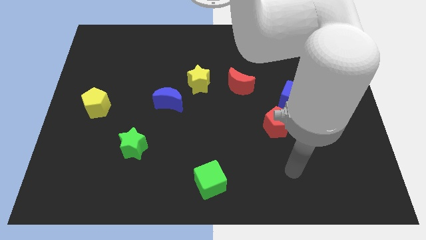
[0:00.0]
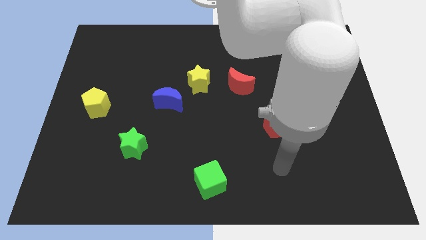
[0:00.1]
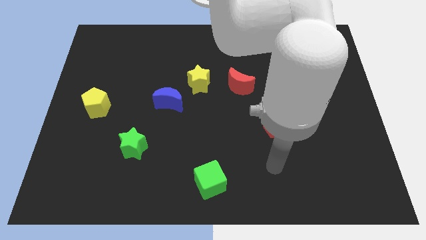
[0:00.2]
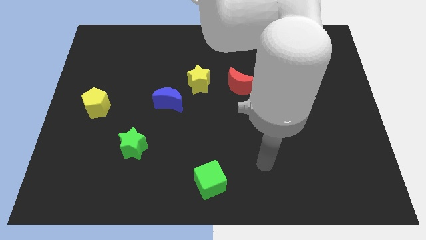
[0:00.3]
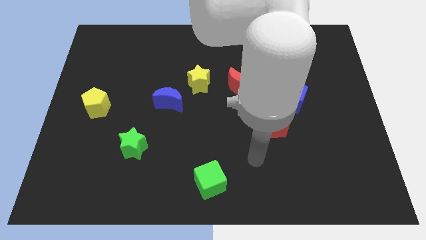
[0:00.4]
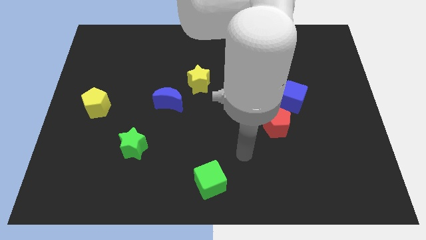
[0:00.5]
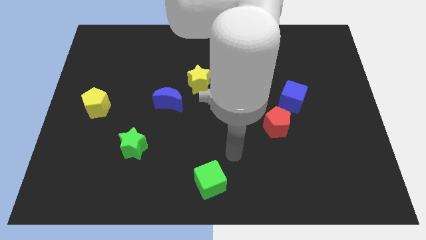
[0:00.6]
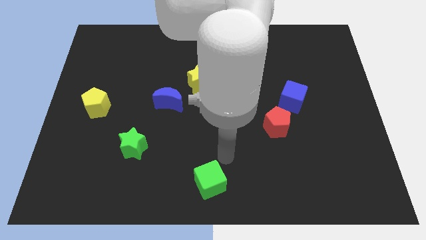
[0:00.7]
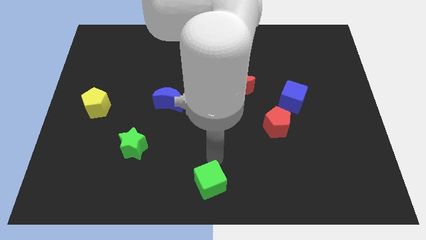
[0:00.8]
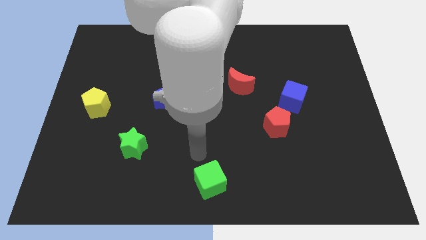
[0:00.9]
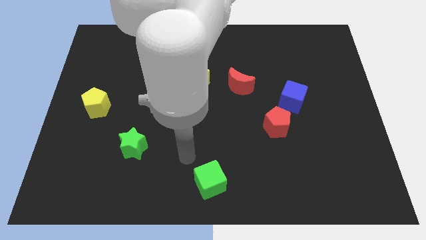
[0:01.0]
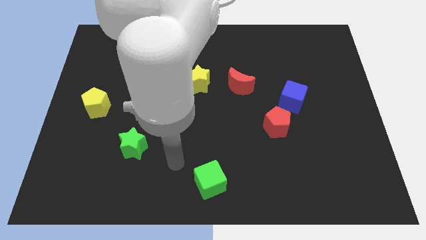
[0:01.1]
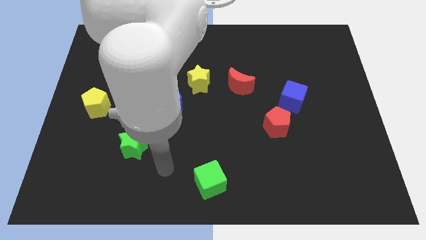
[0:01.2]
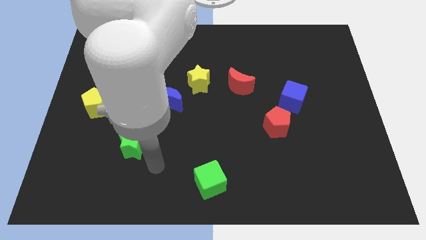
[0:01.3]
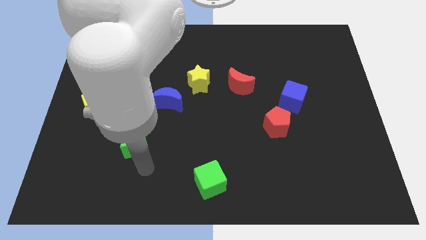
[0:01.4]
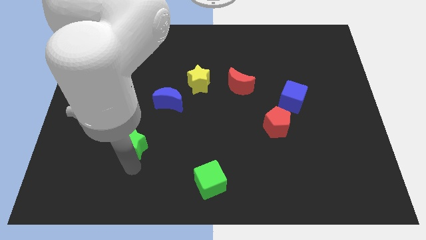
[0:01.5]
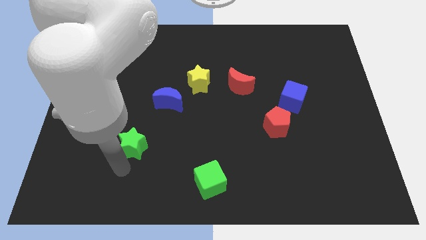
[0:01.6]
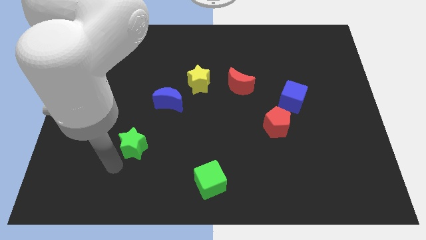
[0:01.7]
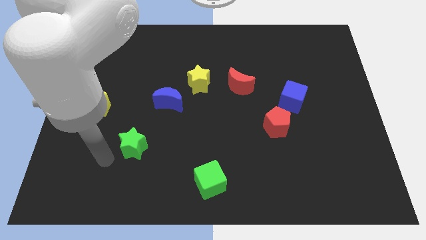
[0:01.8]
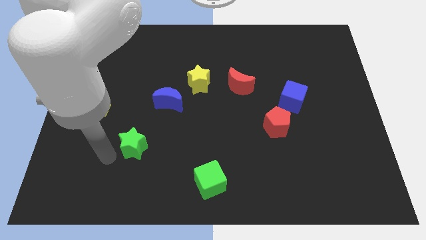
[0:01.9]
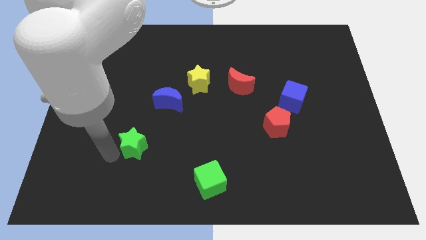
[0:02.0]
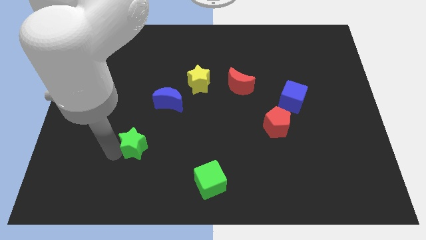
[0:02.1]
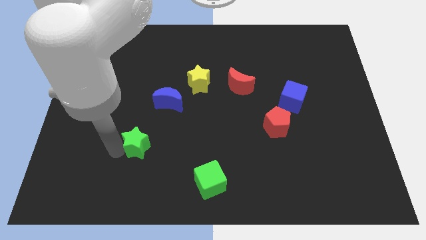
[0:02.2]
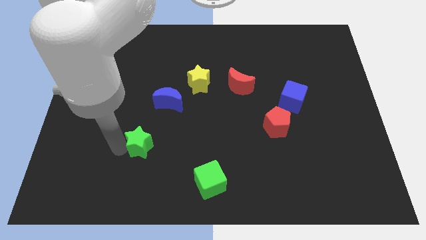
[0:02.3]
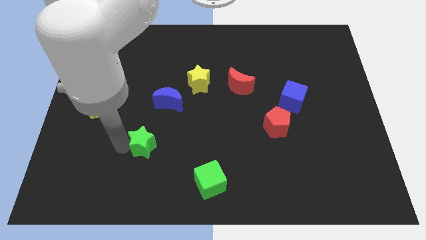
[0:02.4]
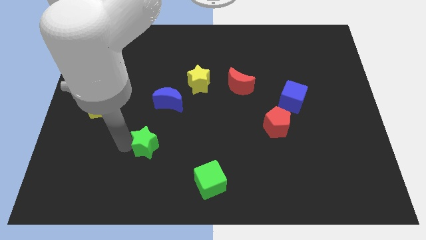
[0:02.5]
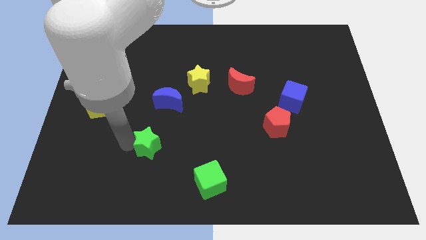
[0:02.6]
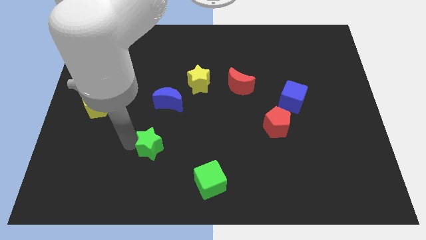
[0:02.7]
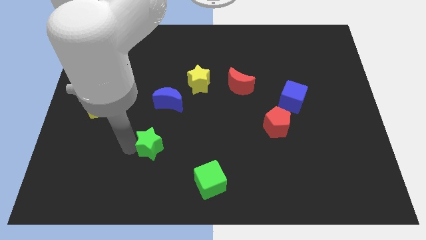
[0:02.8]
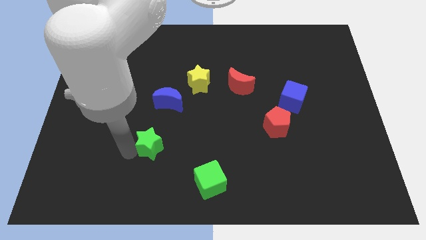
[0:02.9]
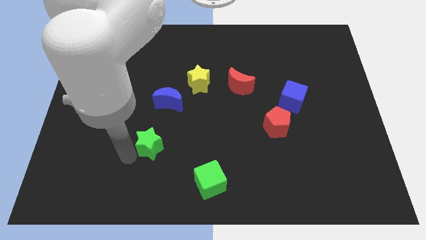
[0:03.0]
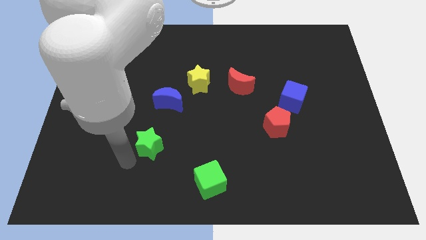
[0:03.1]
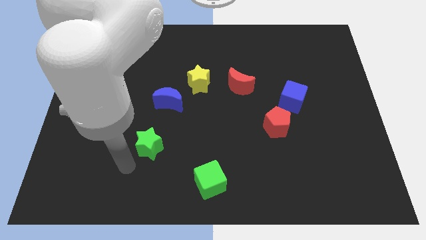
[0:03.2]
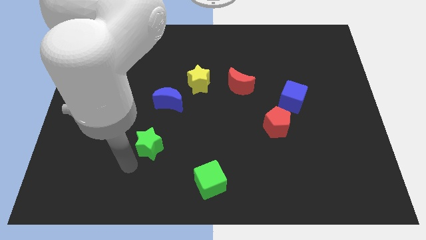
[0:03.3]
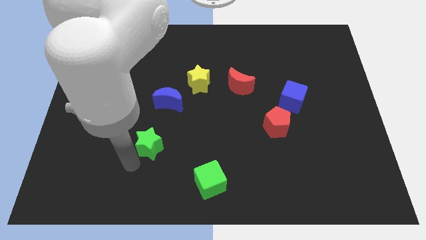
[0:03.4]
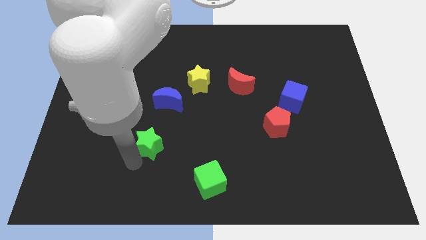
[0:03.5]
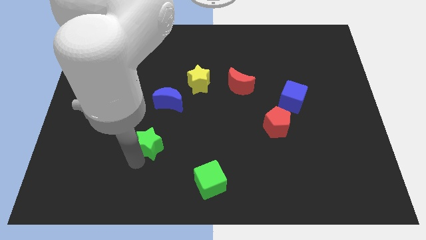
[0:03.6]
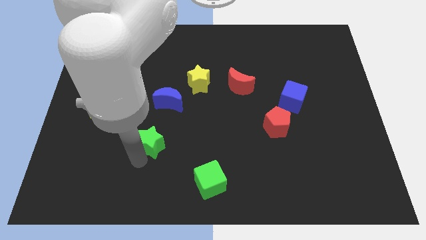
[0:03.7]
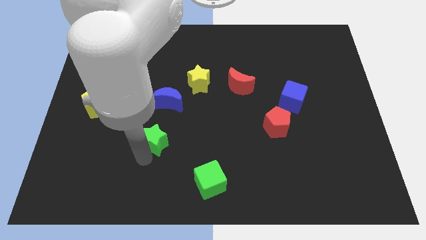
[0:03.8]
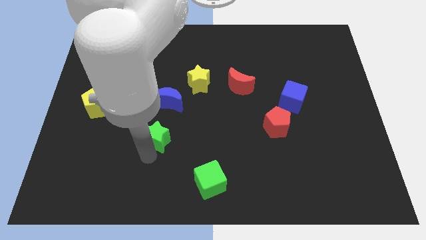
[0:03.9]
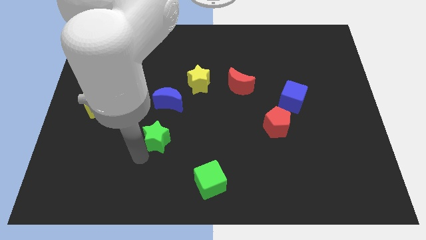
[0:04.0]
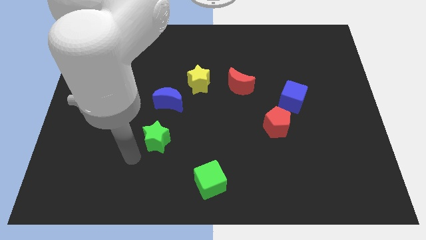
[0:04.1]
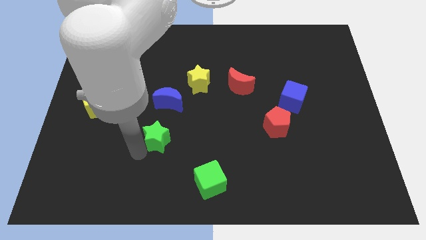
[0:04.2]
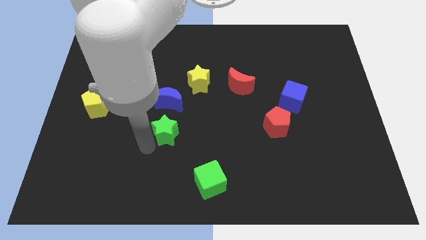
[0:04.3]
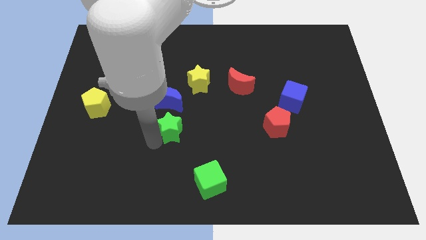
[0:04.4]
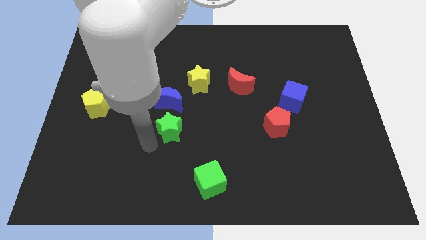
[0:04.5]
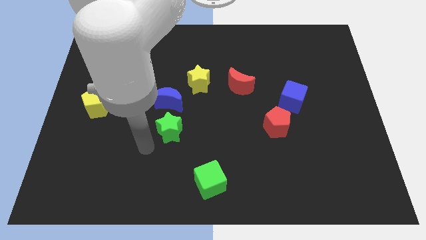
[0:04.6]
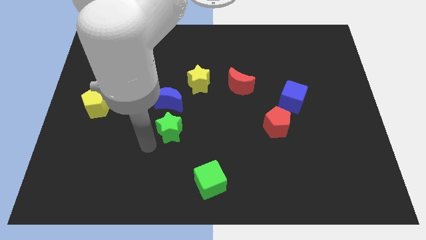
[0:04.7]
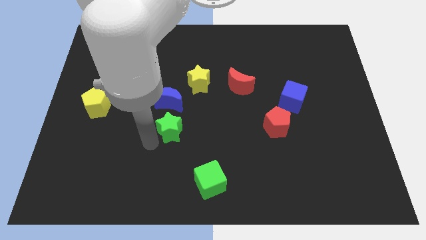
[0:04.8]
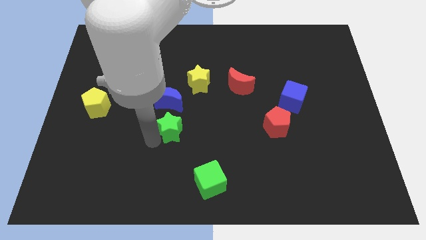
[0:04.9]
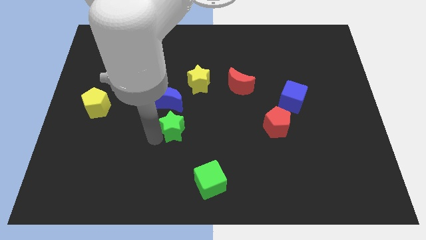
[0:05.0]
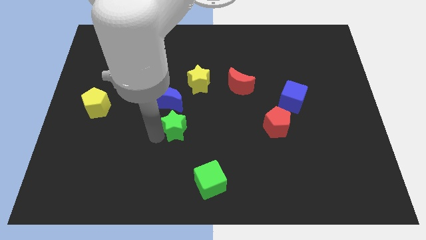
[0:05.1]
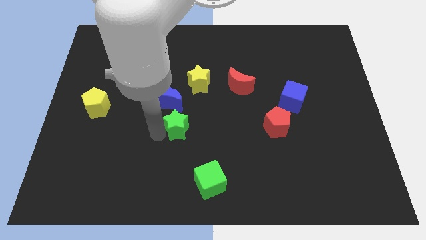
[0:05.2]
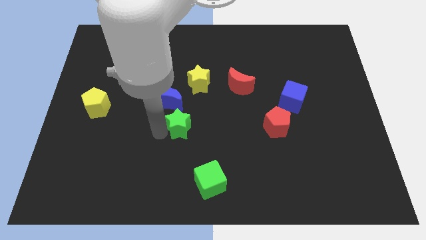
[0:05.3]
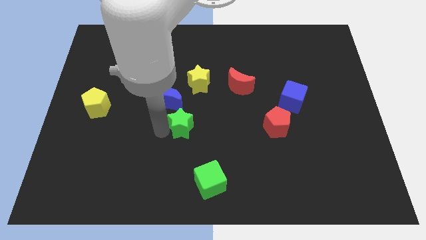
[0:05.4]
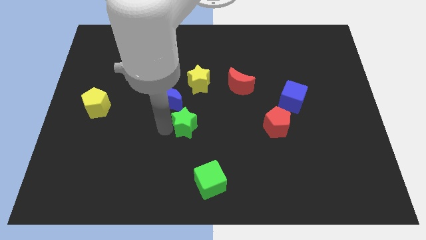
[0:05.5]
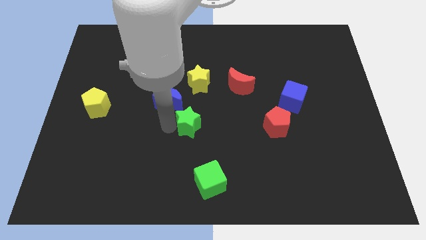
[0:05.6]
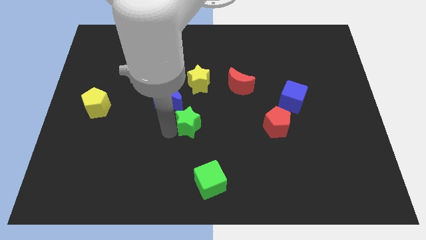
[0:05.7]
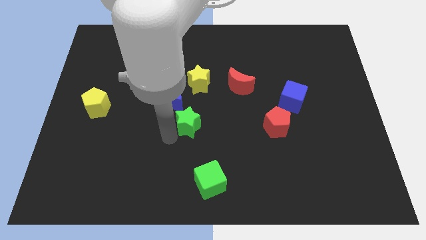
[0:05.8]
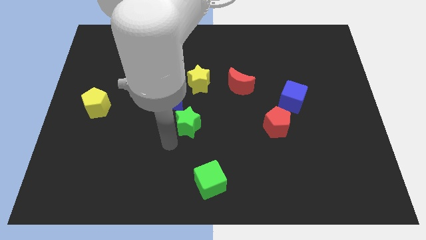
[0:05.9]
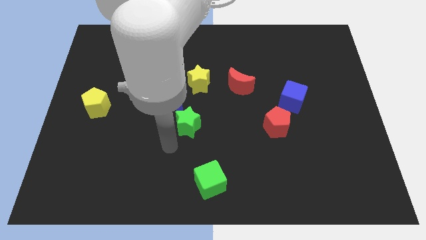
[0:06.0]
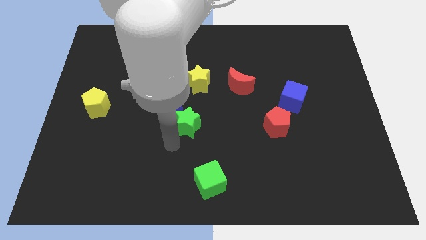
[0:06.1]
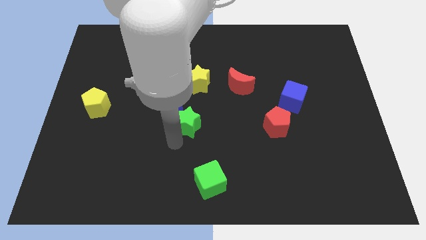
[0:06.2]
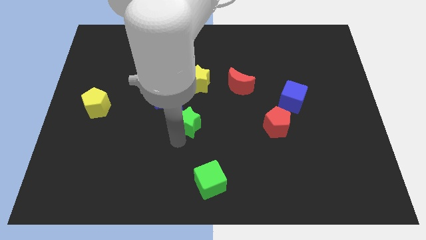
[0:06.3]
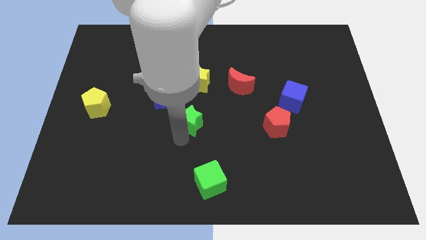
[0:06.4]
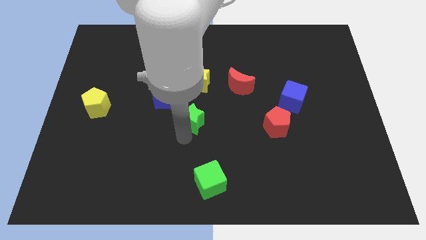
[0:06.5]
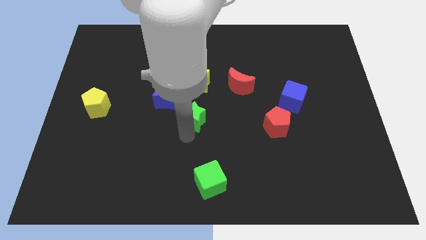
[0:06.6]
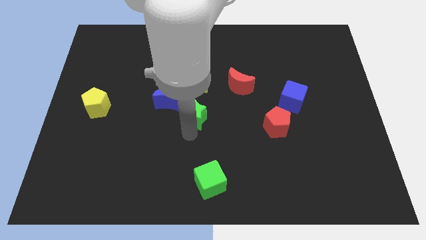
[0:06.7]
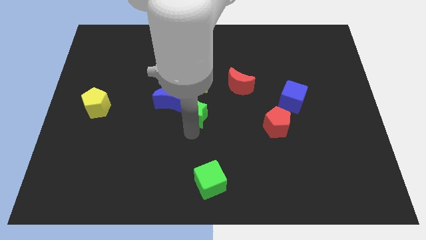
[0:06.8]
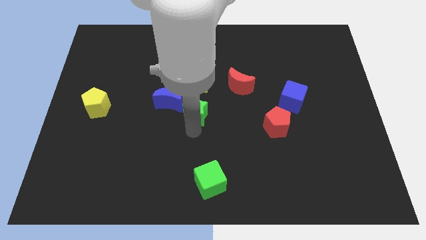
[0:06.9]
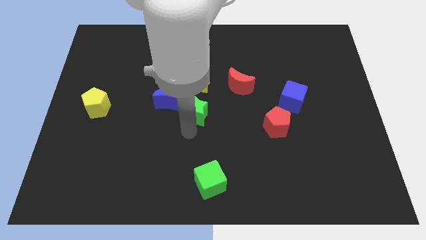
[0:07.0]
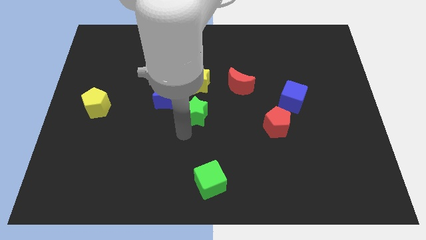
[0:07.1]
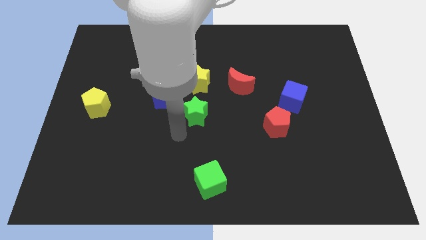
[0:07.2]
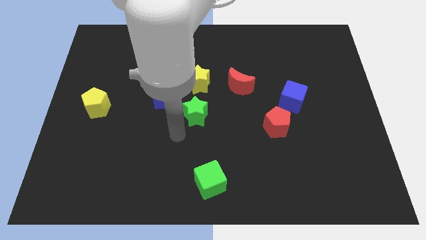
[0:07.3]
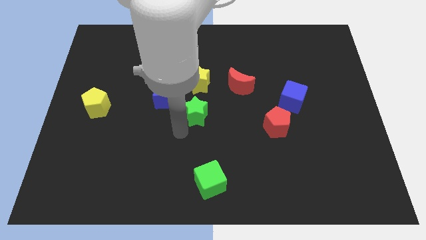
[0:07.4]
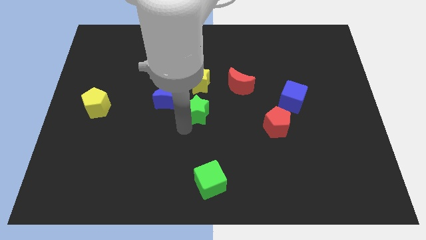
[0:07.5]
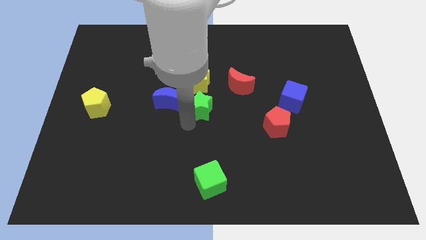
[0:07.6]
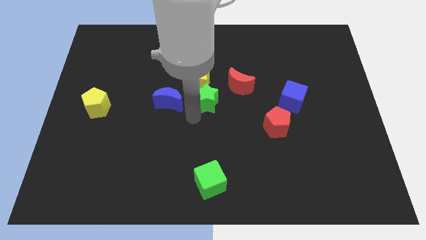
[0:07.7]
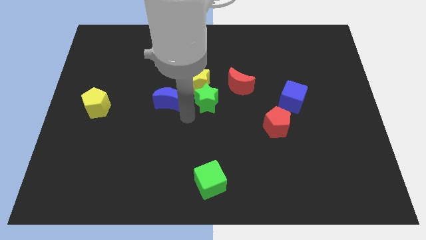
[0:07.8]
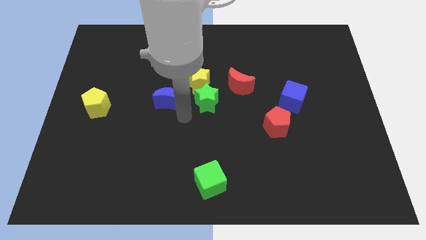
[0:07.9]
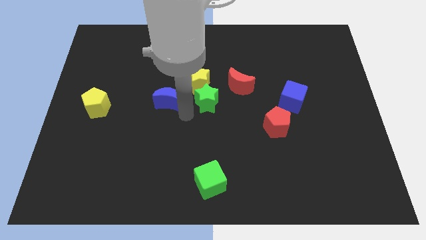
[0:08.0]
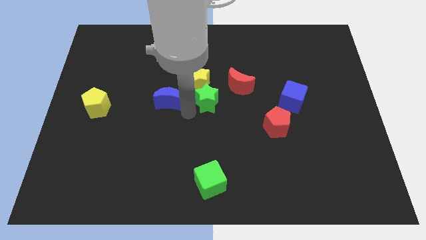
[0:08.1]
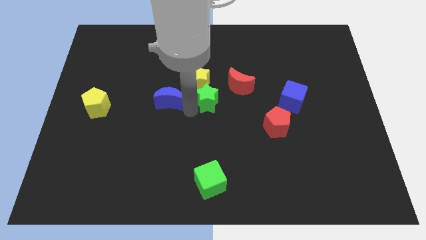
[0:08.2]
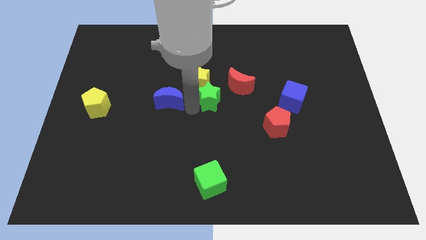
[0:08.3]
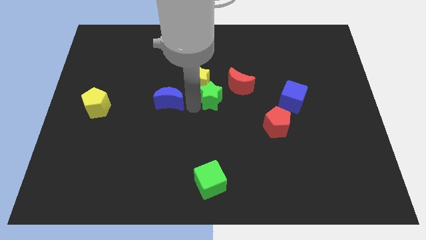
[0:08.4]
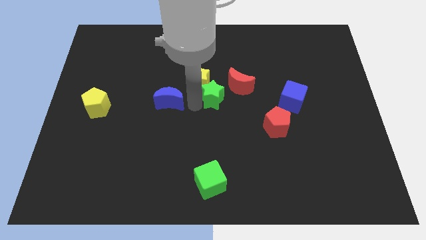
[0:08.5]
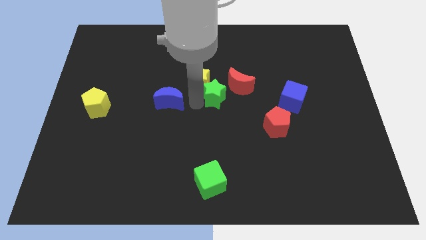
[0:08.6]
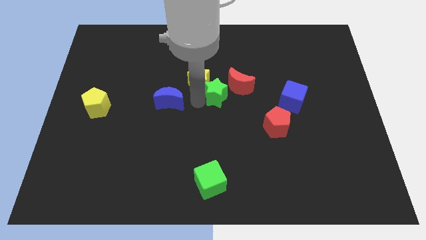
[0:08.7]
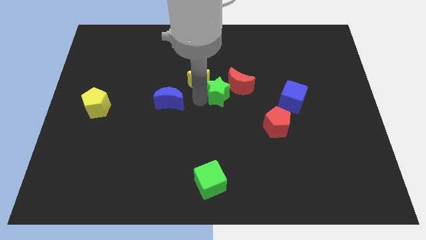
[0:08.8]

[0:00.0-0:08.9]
slide the green star towards the red moon
